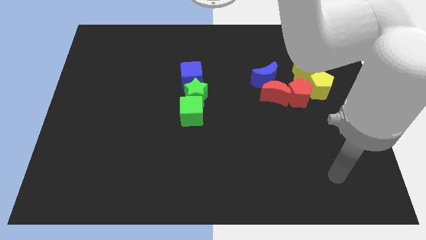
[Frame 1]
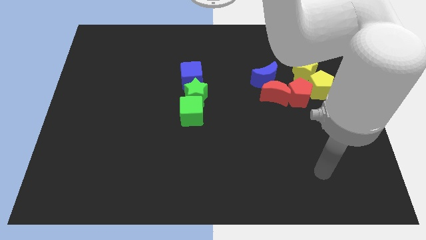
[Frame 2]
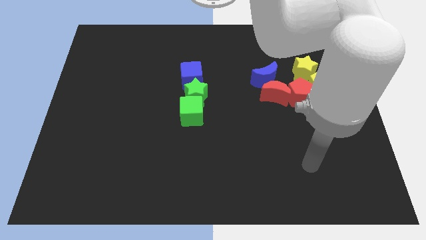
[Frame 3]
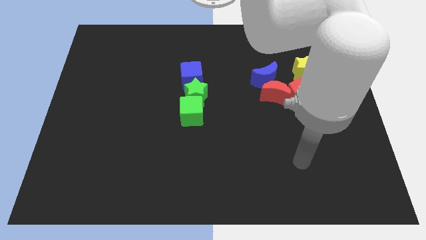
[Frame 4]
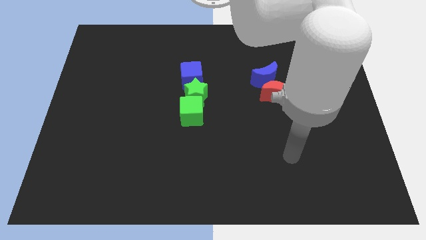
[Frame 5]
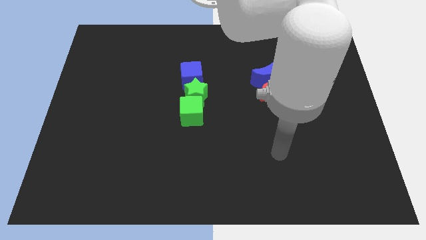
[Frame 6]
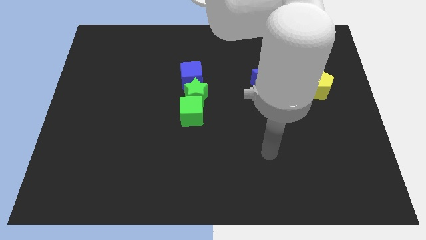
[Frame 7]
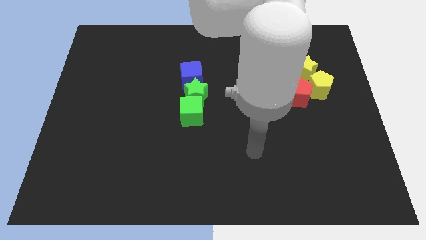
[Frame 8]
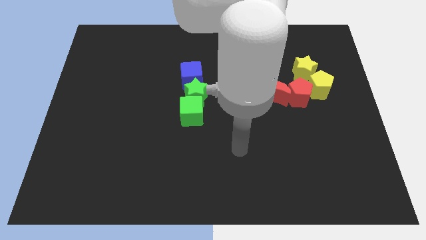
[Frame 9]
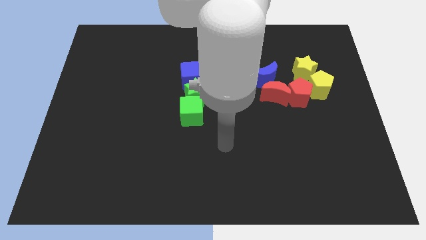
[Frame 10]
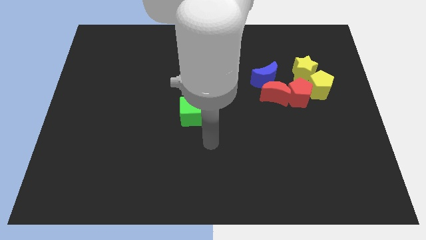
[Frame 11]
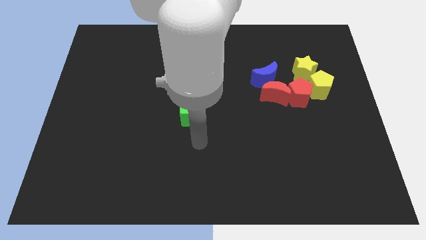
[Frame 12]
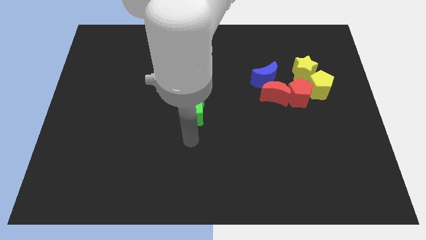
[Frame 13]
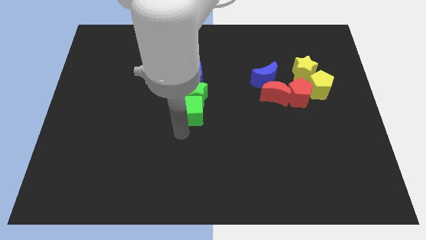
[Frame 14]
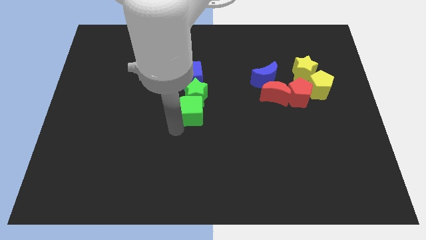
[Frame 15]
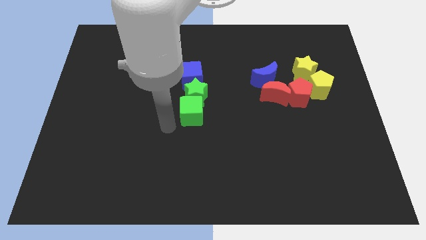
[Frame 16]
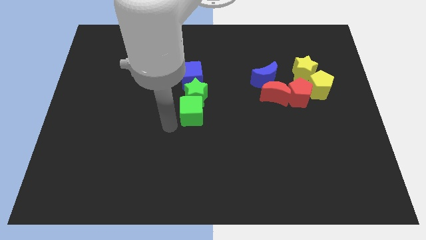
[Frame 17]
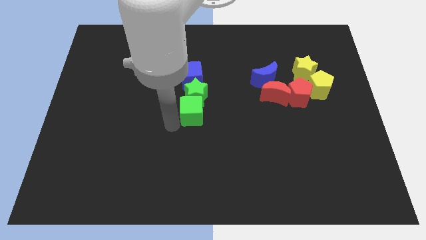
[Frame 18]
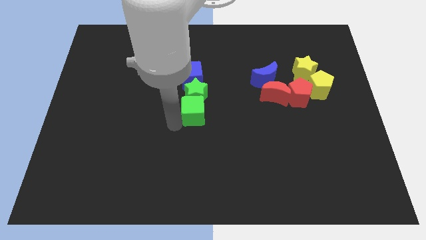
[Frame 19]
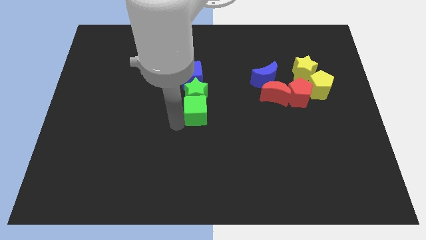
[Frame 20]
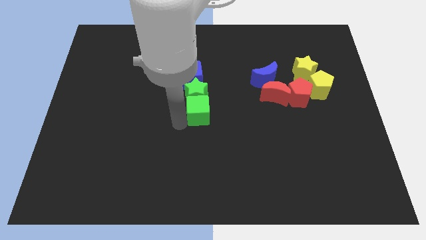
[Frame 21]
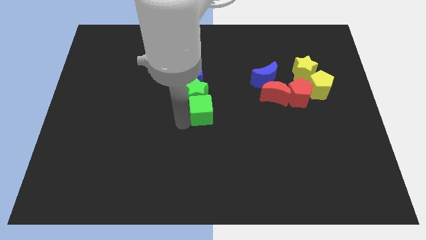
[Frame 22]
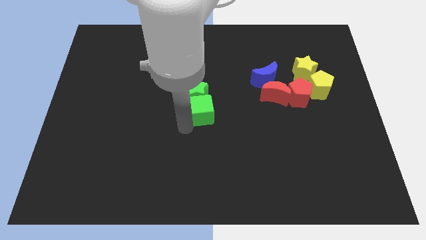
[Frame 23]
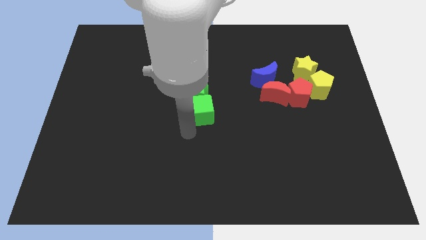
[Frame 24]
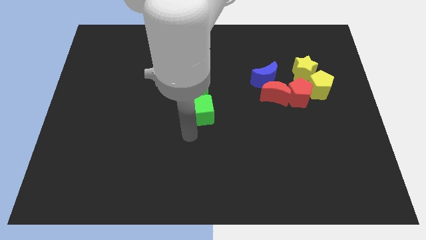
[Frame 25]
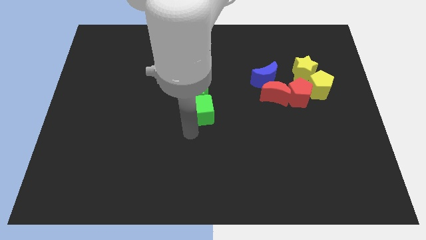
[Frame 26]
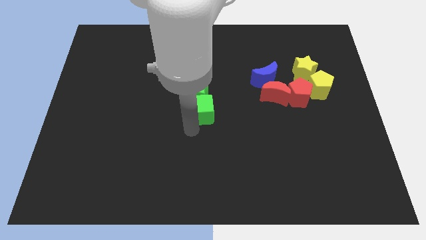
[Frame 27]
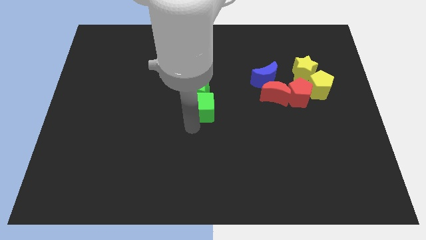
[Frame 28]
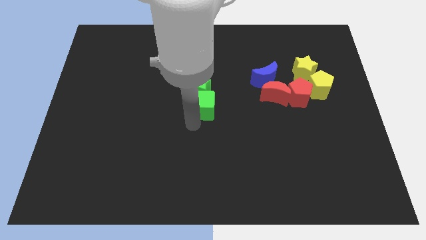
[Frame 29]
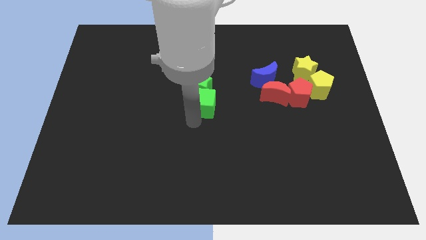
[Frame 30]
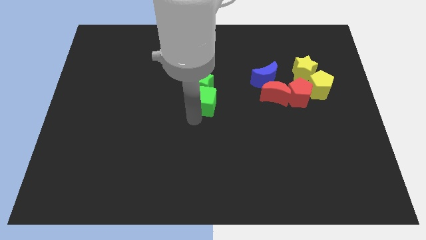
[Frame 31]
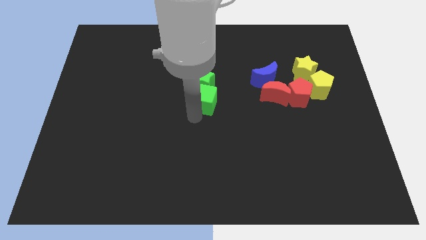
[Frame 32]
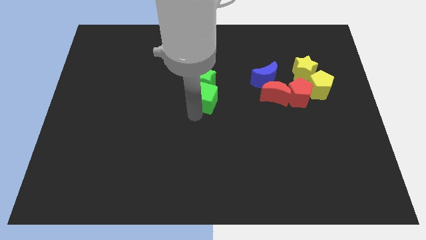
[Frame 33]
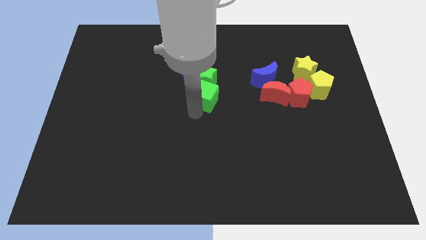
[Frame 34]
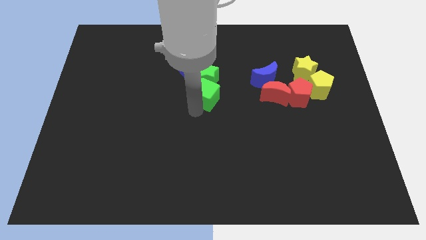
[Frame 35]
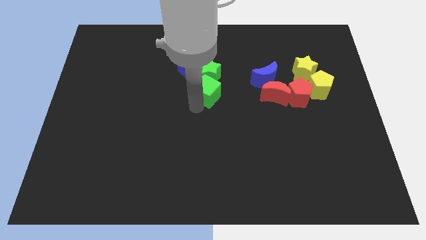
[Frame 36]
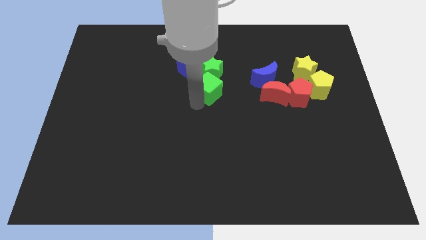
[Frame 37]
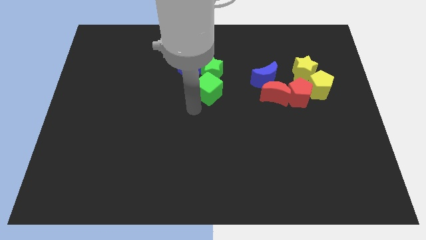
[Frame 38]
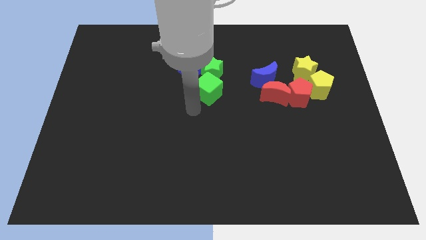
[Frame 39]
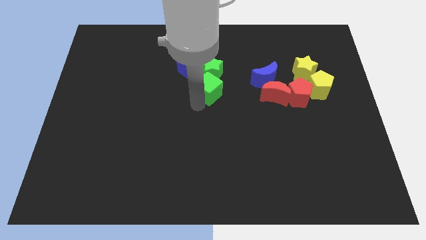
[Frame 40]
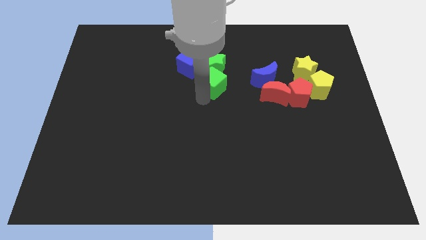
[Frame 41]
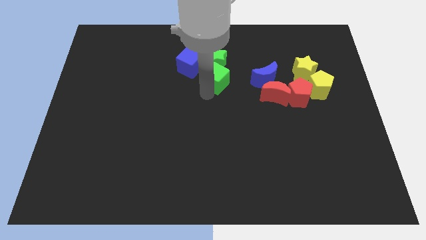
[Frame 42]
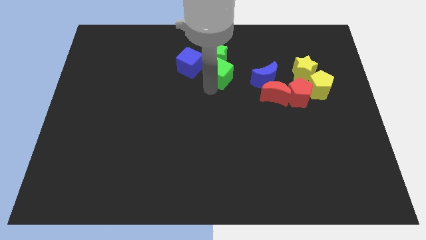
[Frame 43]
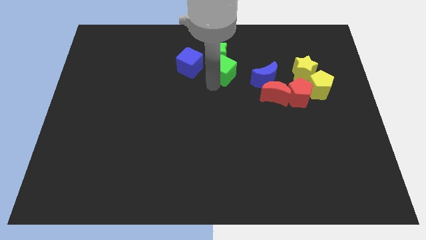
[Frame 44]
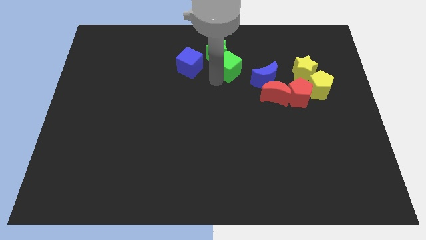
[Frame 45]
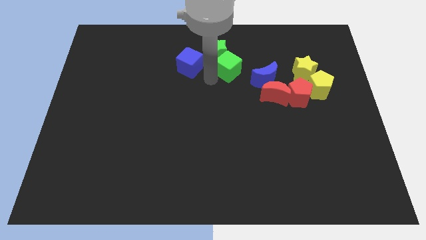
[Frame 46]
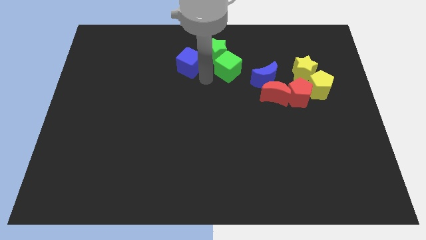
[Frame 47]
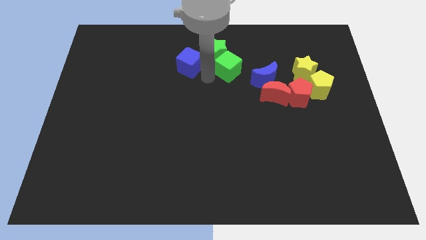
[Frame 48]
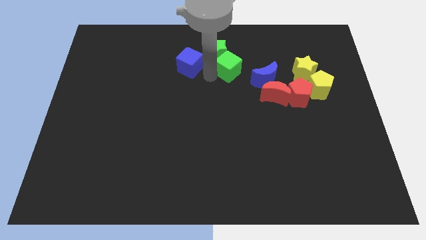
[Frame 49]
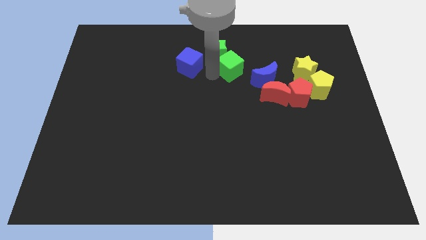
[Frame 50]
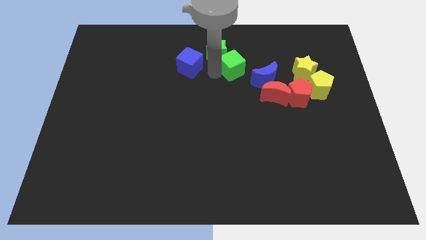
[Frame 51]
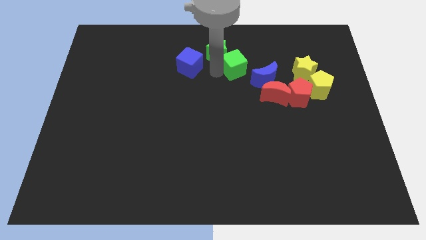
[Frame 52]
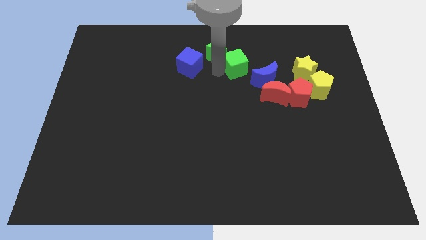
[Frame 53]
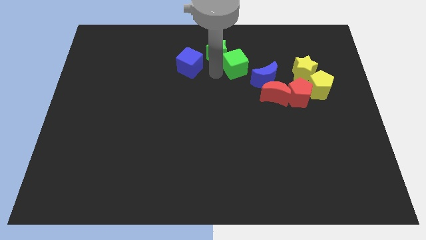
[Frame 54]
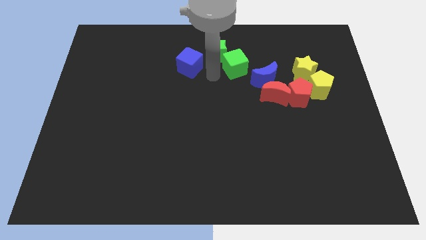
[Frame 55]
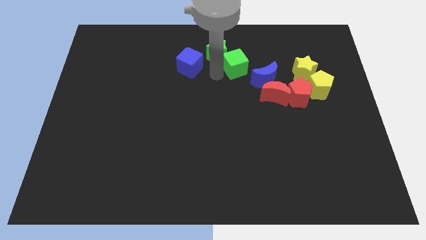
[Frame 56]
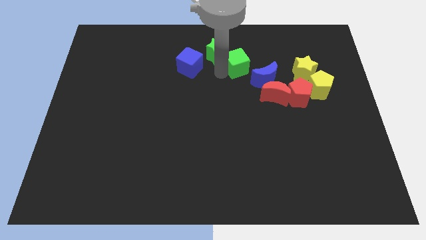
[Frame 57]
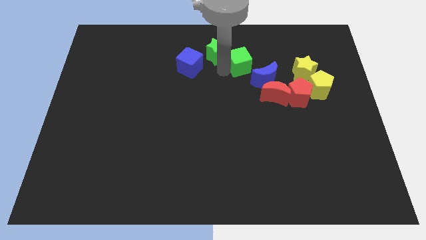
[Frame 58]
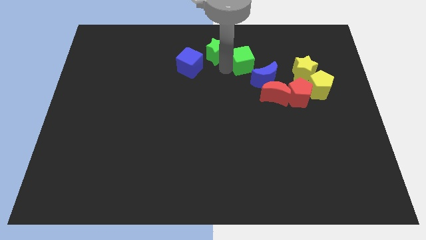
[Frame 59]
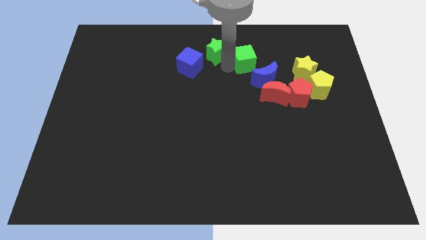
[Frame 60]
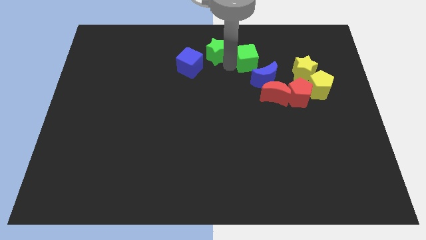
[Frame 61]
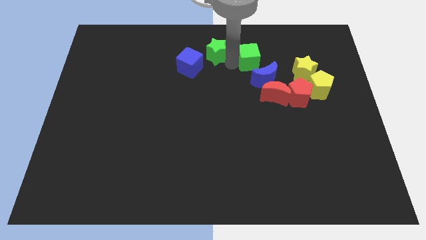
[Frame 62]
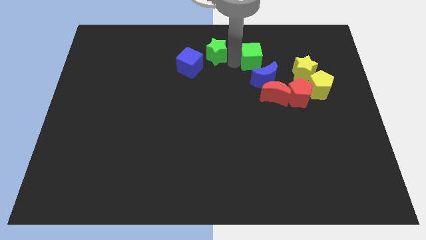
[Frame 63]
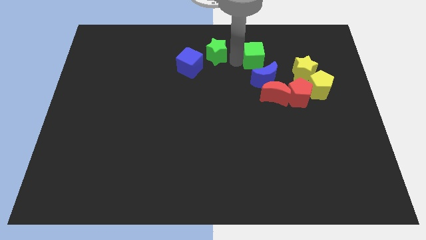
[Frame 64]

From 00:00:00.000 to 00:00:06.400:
put the green cube to the top side of the red moon

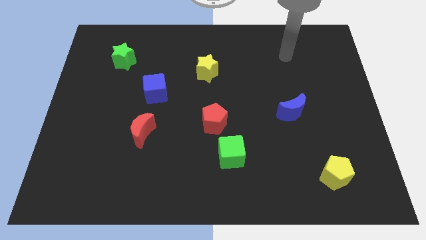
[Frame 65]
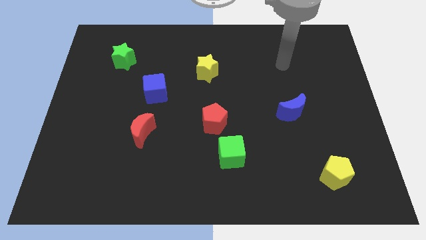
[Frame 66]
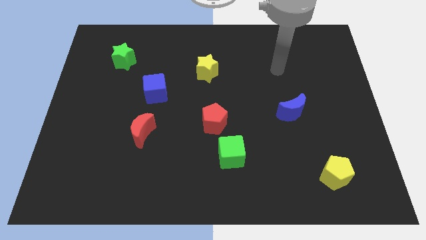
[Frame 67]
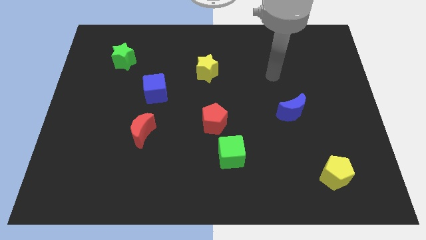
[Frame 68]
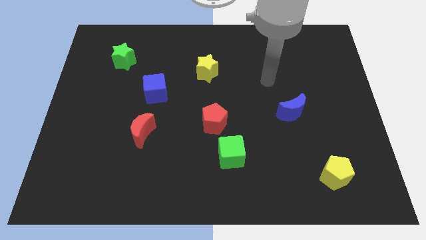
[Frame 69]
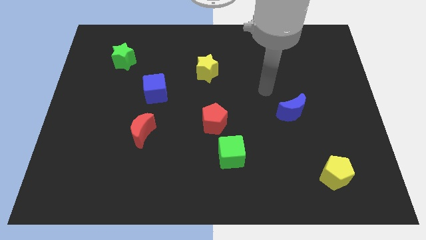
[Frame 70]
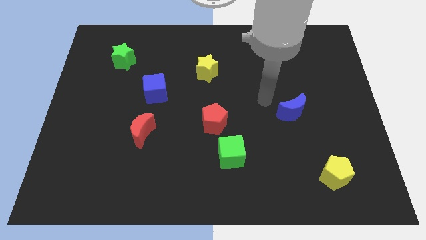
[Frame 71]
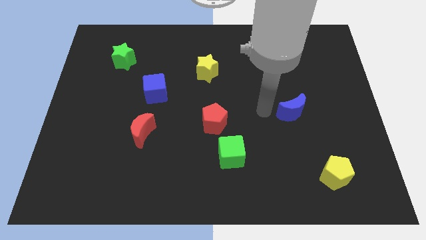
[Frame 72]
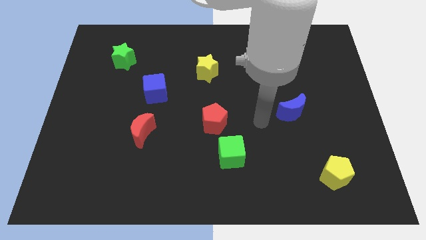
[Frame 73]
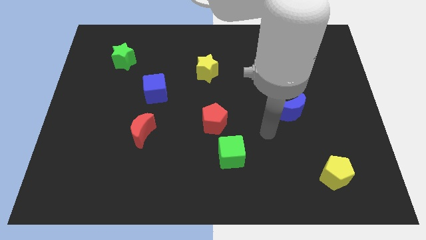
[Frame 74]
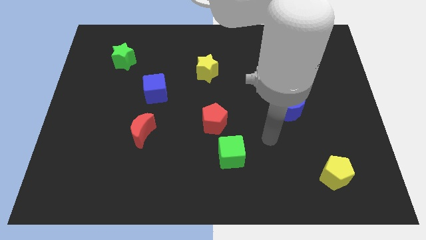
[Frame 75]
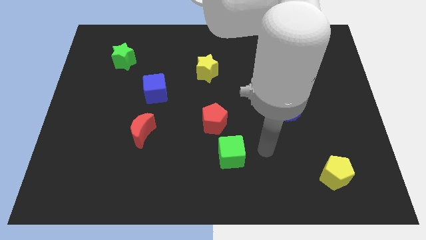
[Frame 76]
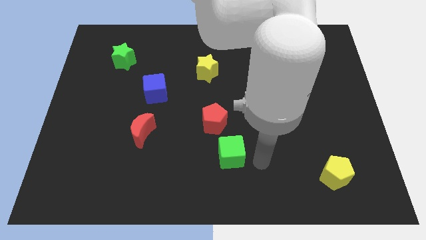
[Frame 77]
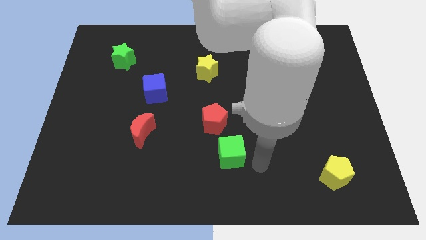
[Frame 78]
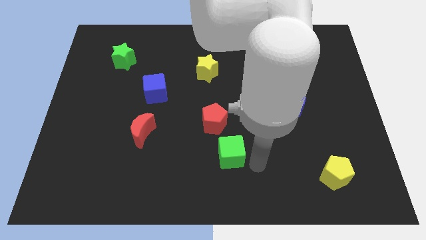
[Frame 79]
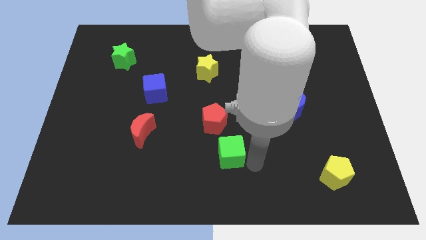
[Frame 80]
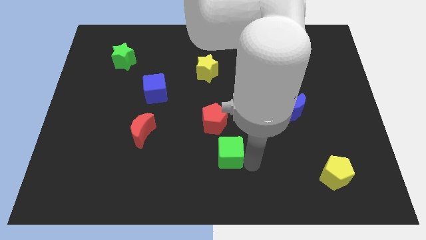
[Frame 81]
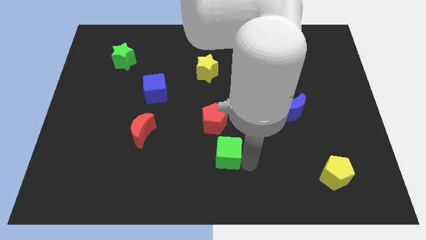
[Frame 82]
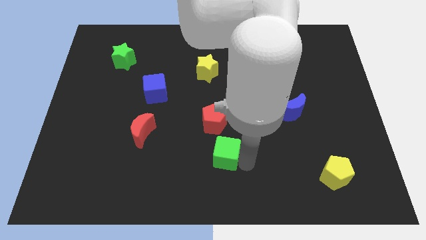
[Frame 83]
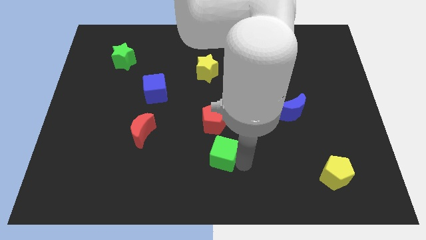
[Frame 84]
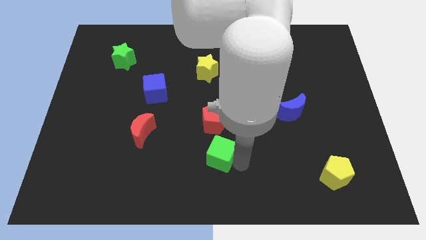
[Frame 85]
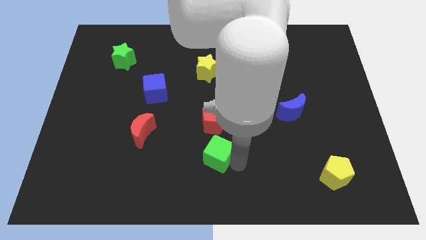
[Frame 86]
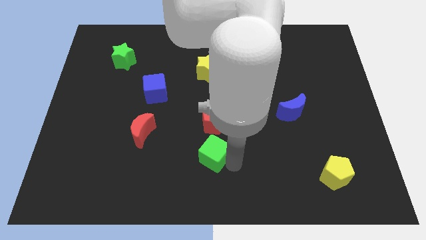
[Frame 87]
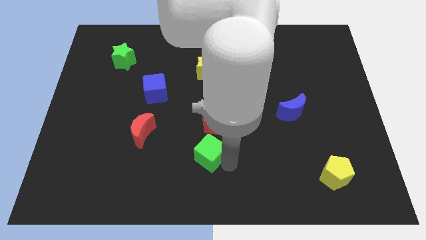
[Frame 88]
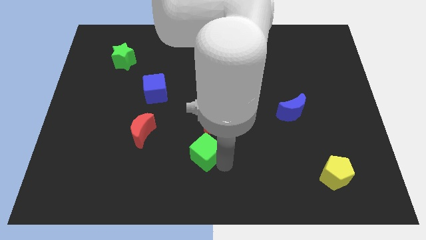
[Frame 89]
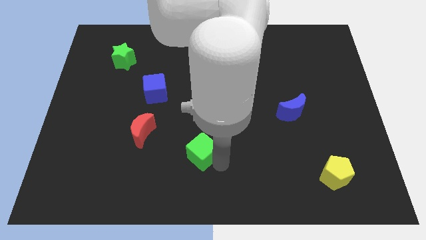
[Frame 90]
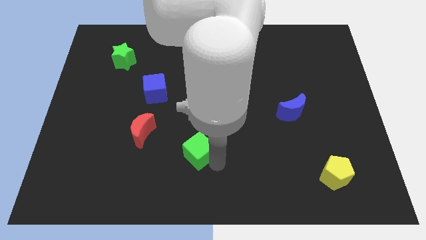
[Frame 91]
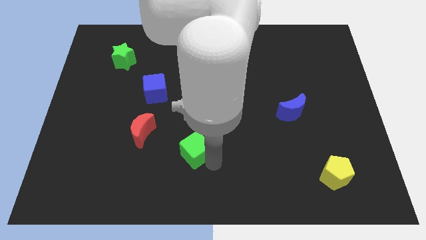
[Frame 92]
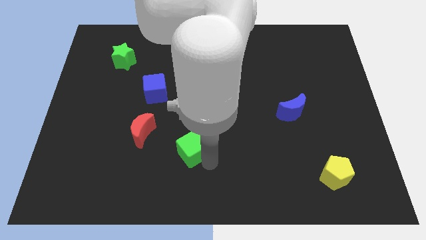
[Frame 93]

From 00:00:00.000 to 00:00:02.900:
push the green cube to the right of the red moon
